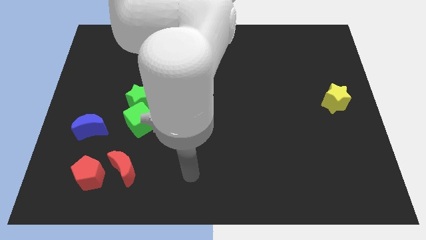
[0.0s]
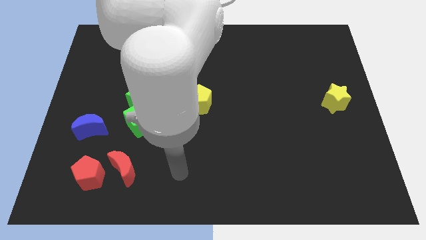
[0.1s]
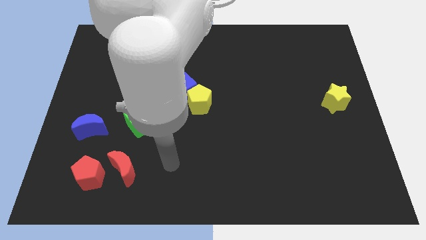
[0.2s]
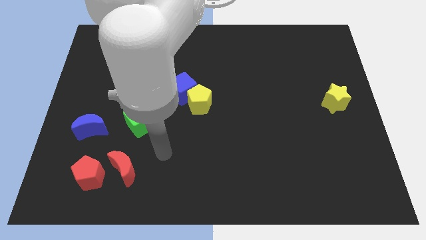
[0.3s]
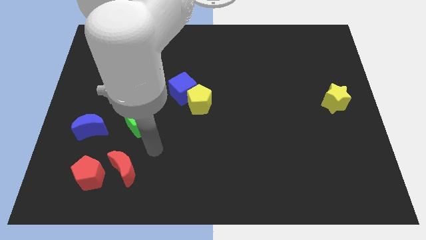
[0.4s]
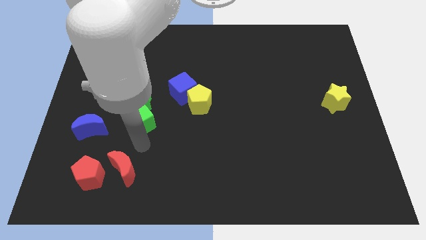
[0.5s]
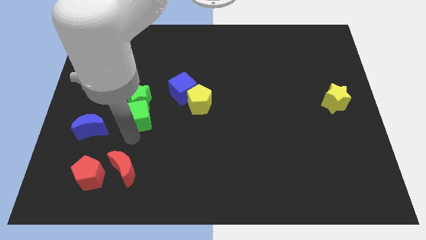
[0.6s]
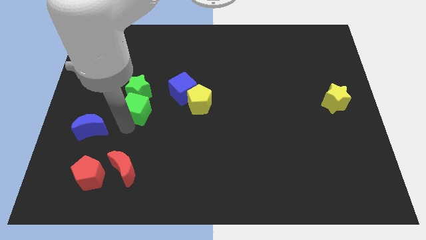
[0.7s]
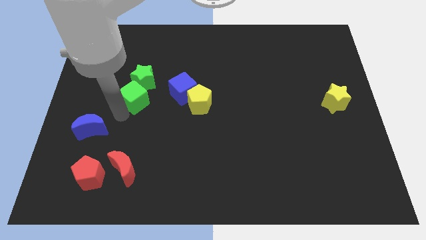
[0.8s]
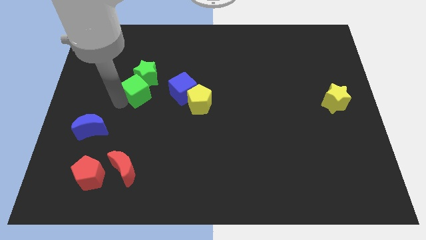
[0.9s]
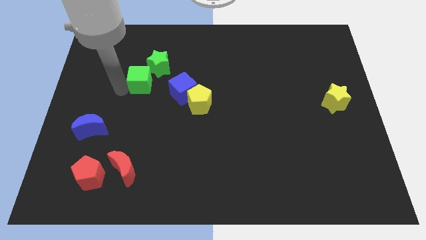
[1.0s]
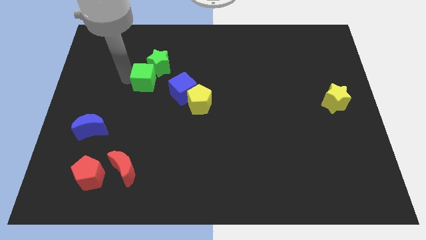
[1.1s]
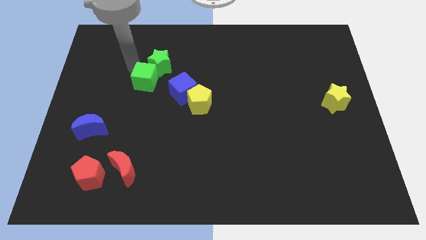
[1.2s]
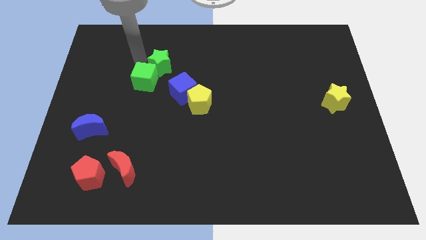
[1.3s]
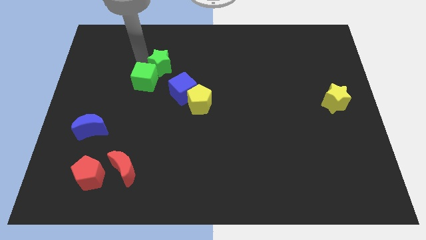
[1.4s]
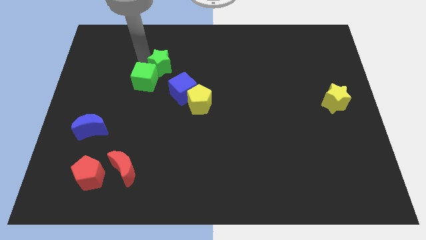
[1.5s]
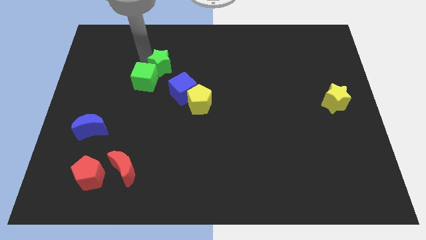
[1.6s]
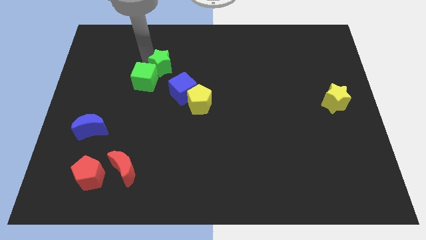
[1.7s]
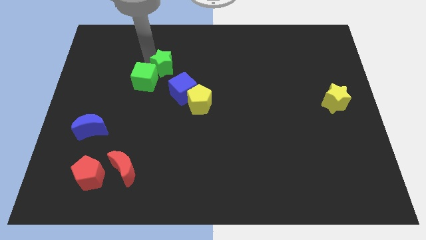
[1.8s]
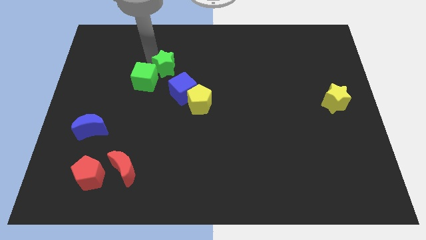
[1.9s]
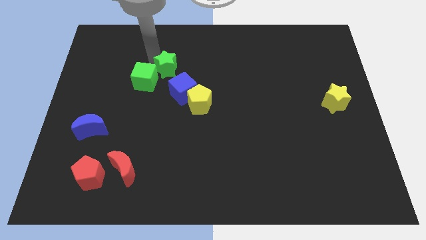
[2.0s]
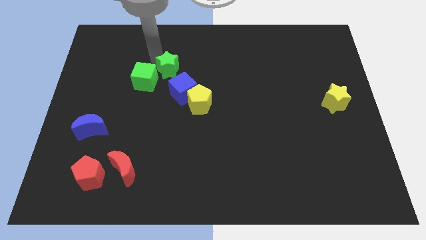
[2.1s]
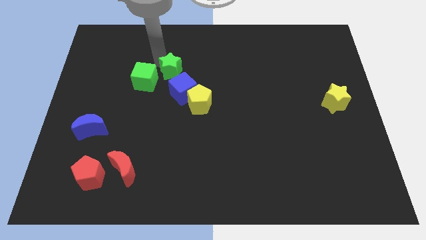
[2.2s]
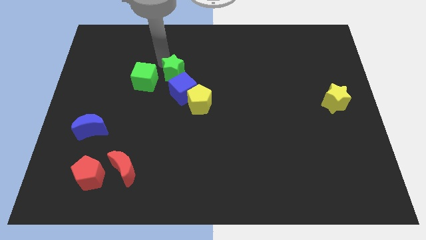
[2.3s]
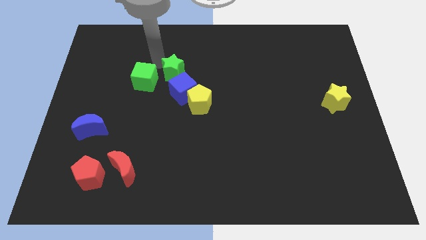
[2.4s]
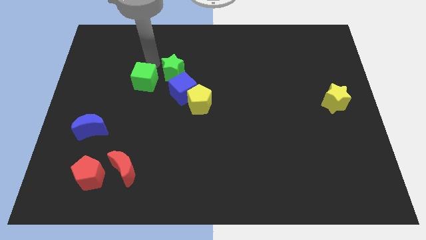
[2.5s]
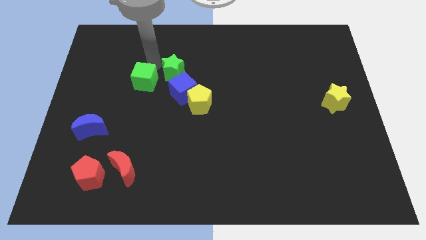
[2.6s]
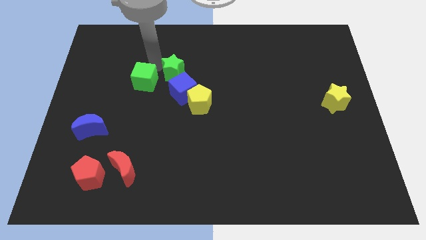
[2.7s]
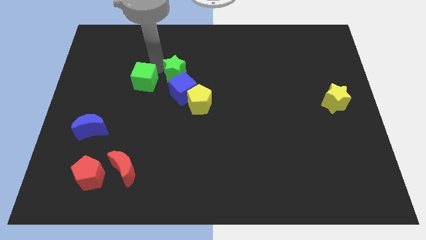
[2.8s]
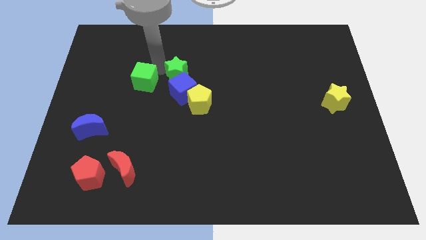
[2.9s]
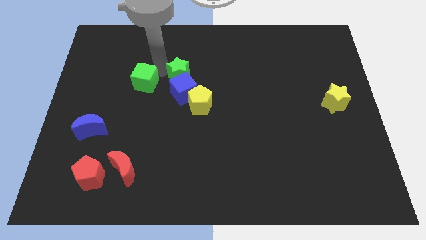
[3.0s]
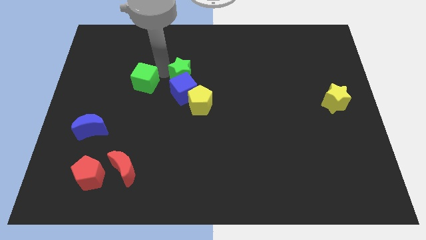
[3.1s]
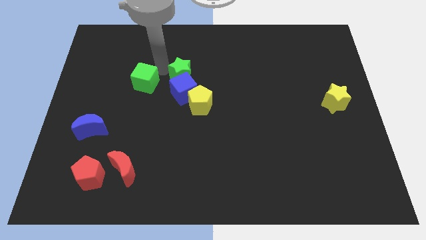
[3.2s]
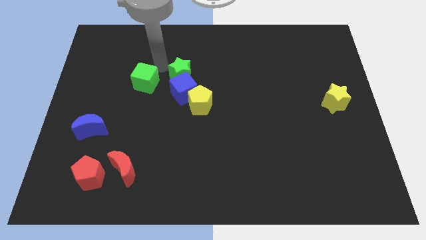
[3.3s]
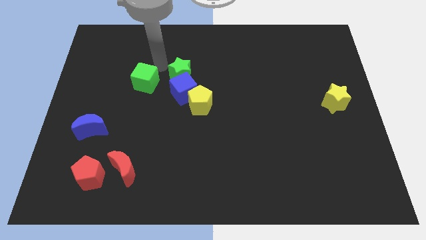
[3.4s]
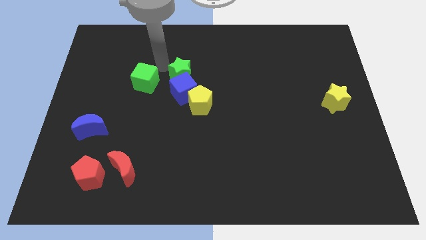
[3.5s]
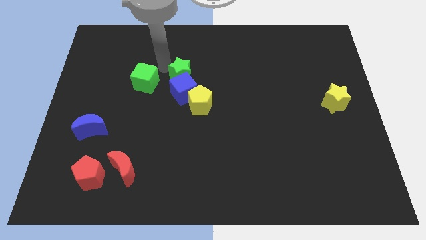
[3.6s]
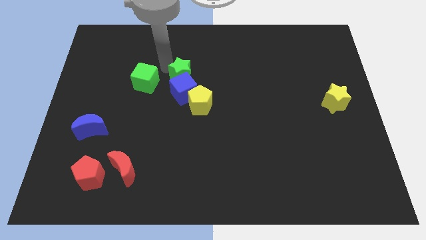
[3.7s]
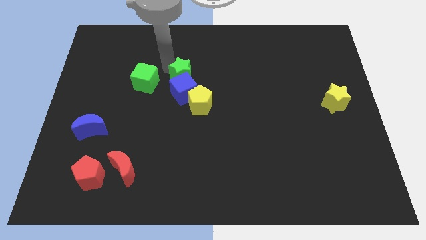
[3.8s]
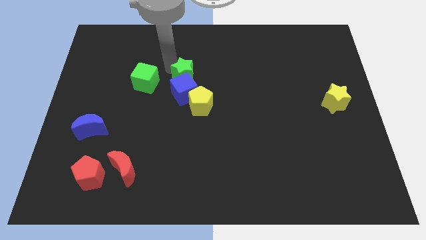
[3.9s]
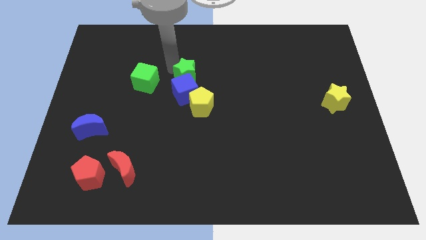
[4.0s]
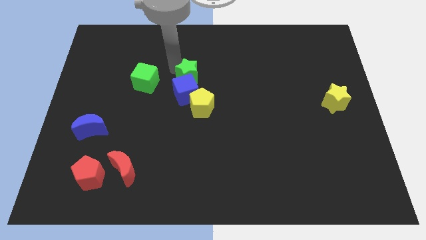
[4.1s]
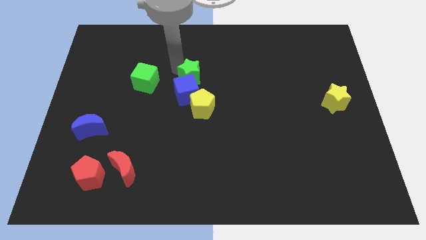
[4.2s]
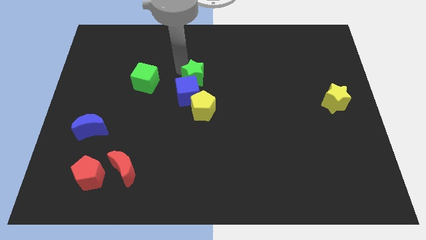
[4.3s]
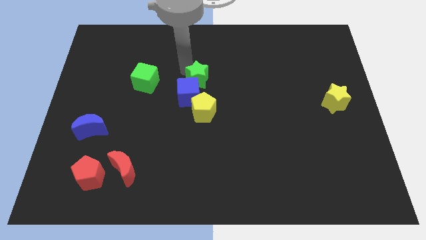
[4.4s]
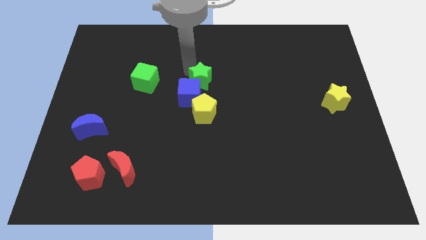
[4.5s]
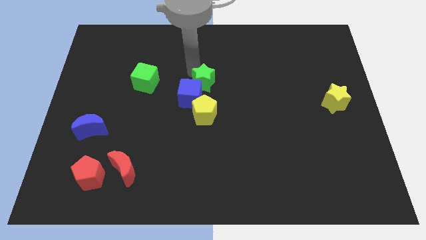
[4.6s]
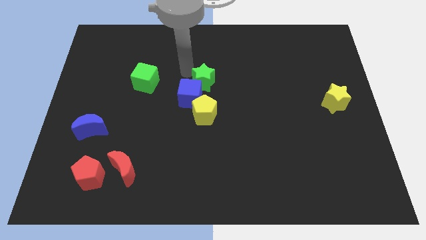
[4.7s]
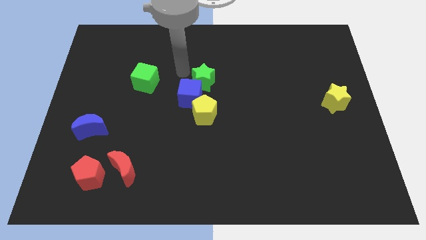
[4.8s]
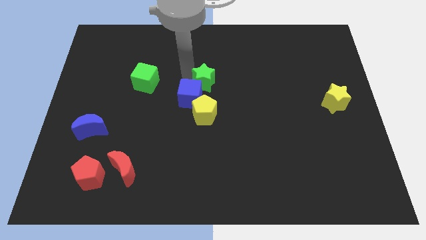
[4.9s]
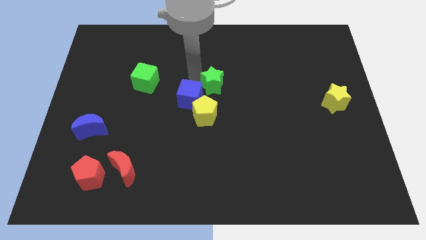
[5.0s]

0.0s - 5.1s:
put the green star to the right side of the blue cube

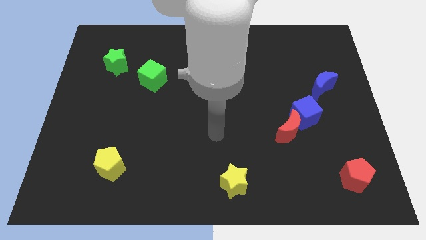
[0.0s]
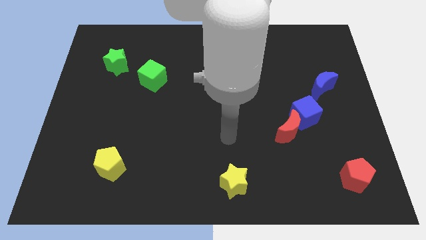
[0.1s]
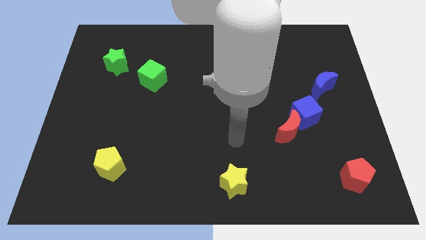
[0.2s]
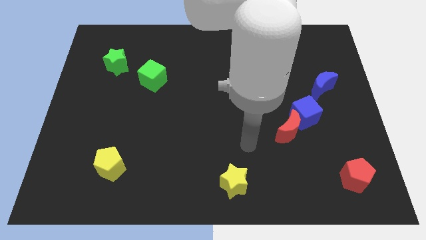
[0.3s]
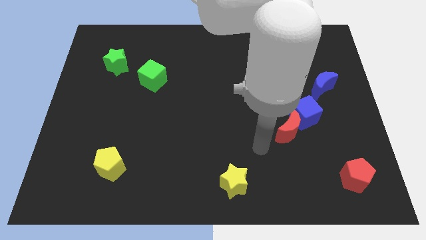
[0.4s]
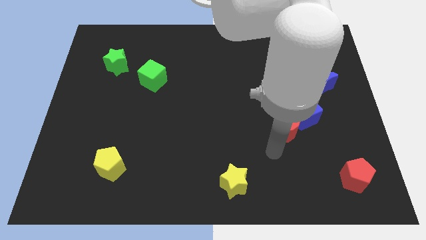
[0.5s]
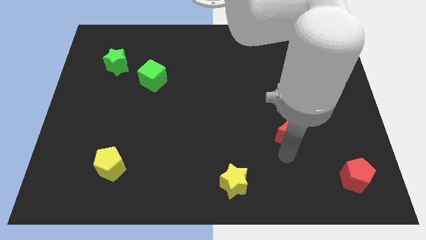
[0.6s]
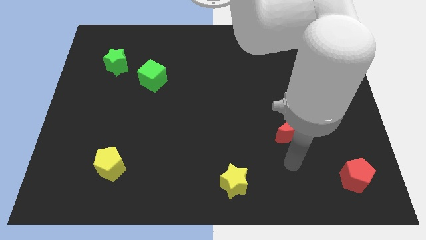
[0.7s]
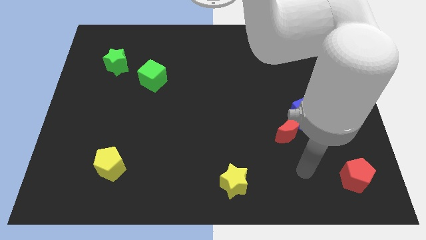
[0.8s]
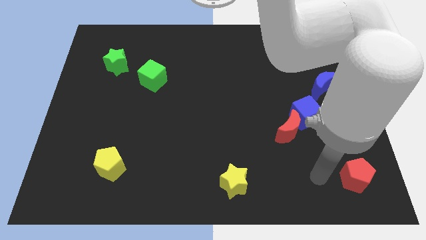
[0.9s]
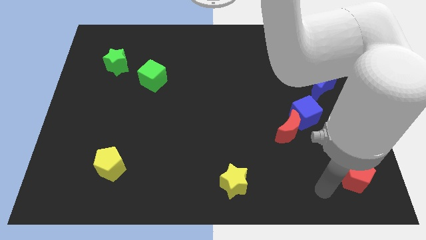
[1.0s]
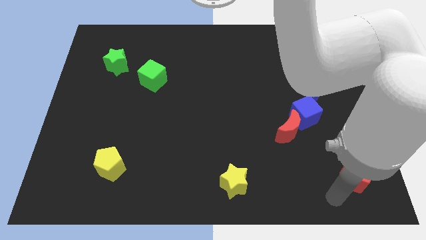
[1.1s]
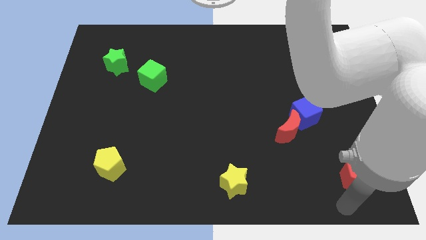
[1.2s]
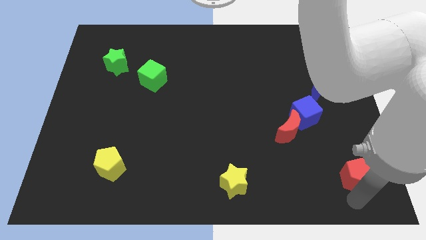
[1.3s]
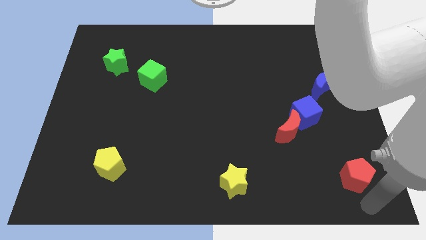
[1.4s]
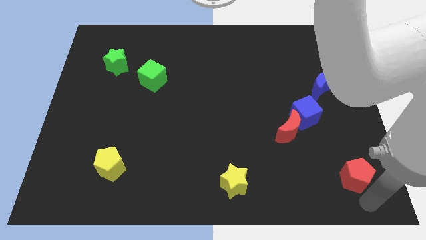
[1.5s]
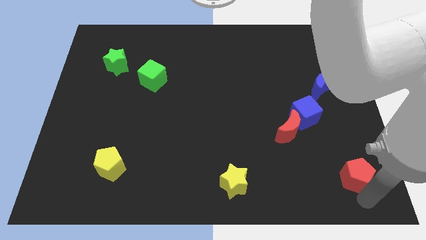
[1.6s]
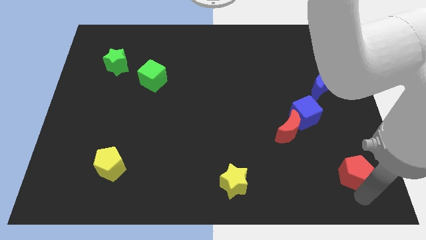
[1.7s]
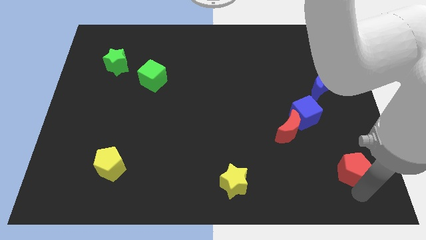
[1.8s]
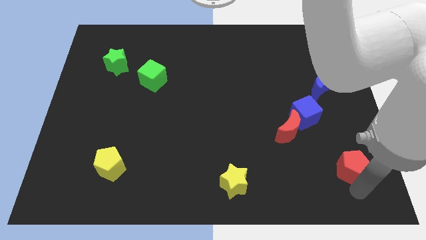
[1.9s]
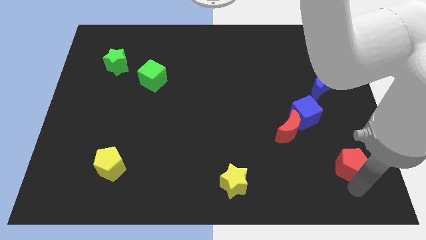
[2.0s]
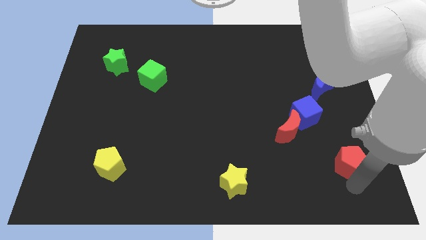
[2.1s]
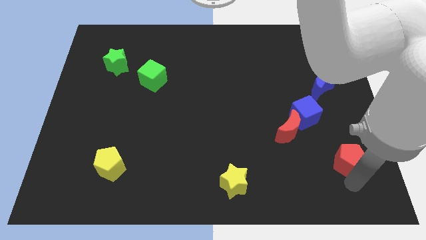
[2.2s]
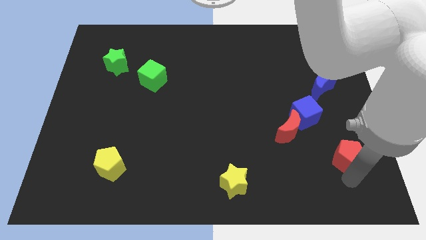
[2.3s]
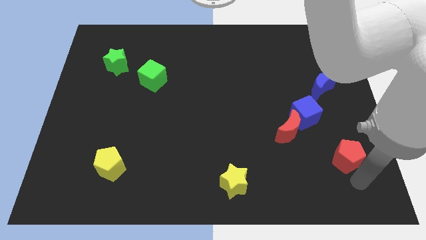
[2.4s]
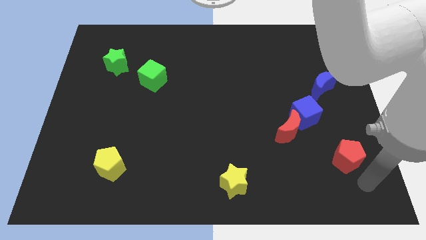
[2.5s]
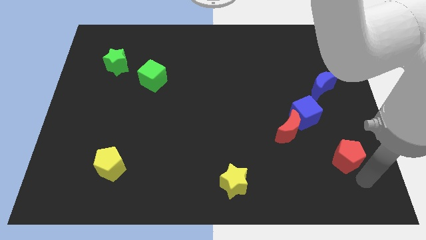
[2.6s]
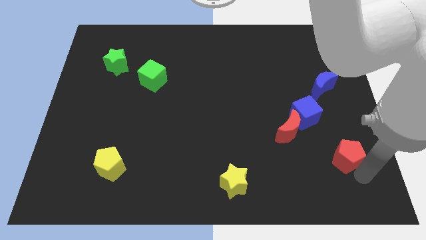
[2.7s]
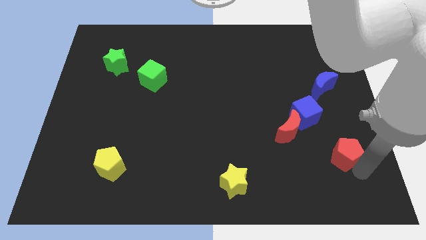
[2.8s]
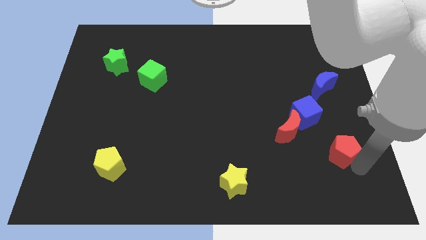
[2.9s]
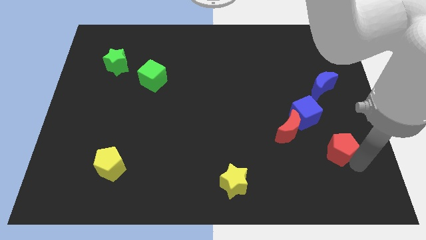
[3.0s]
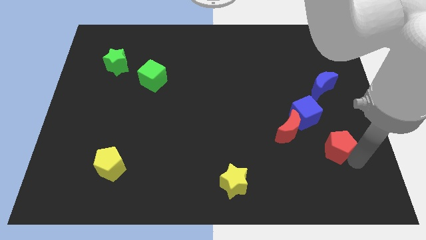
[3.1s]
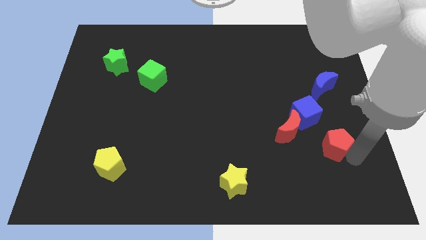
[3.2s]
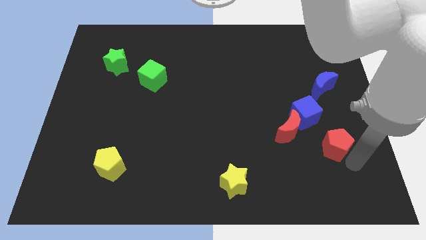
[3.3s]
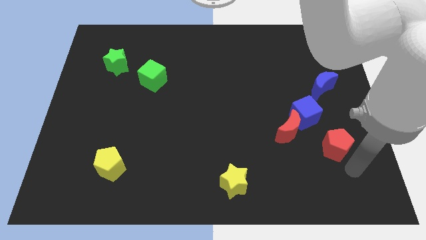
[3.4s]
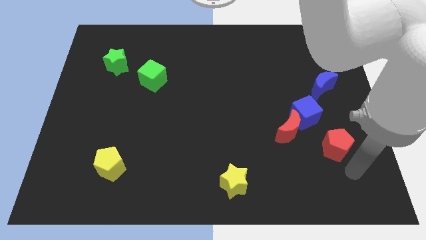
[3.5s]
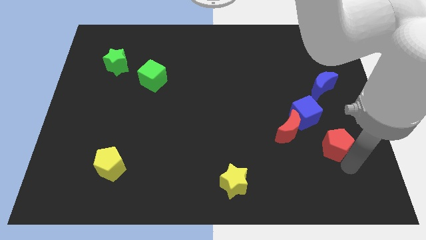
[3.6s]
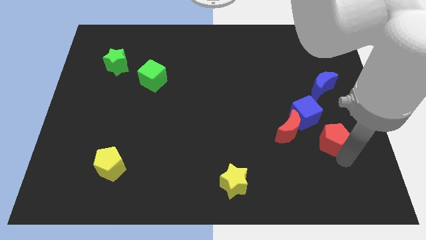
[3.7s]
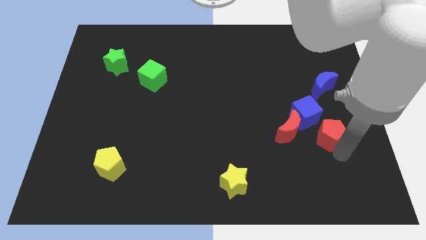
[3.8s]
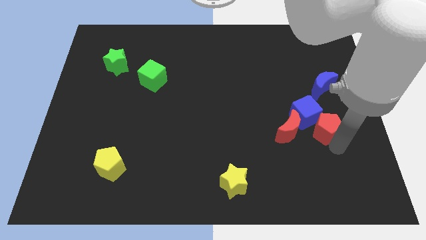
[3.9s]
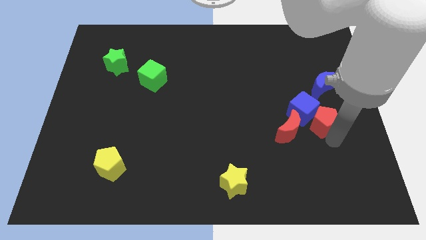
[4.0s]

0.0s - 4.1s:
put the red pentagon to the top right of the red moon
